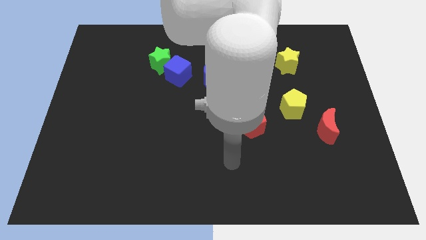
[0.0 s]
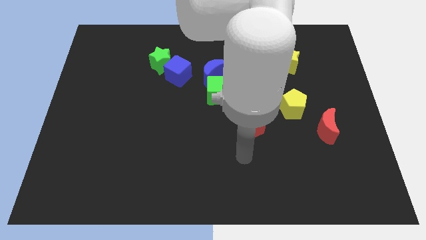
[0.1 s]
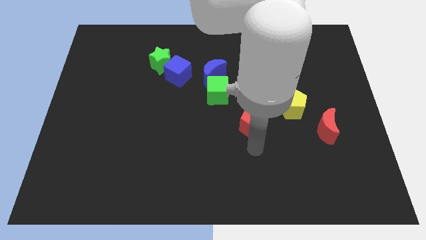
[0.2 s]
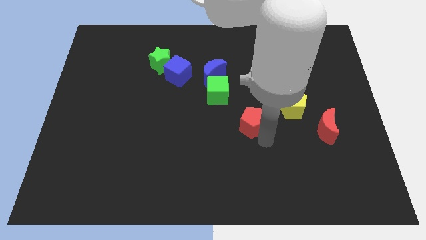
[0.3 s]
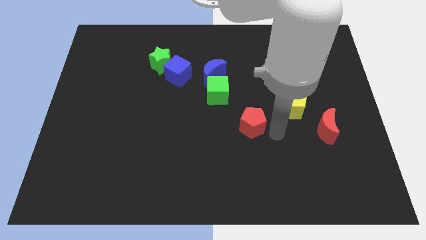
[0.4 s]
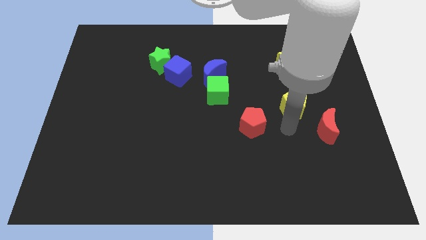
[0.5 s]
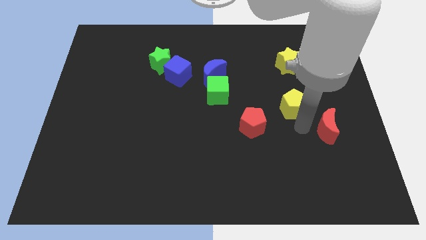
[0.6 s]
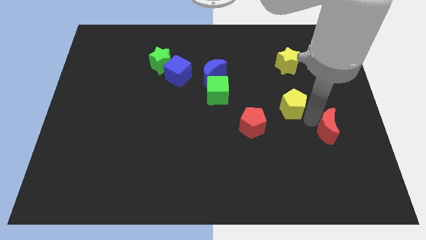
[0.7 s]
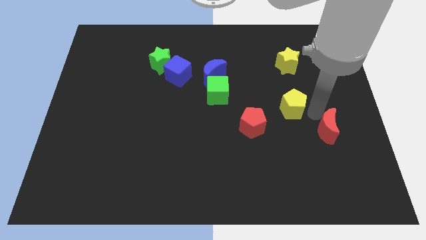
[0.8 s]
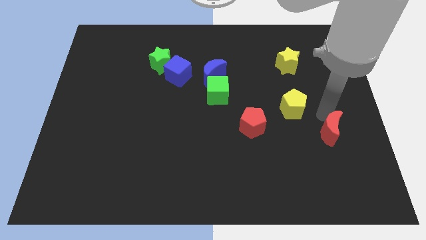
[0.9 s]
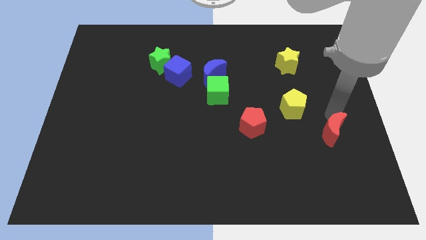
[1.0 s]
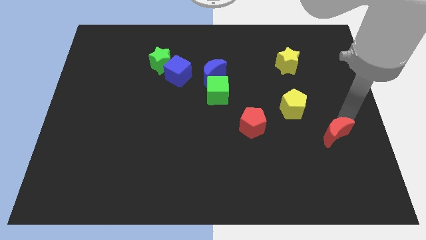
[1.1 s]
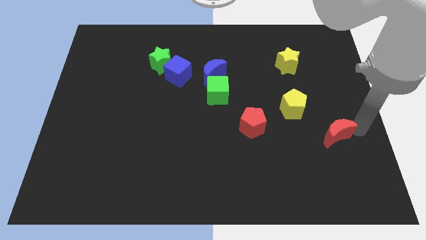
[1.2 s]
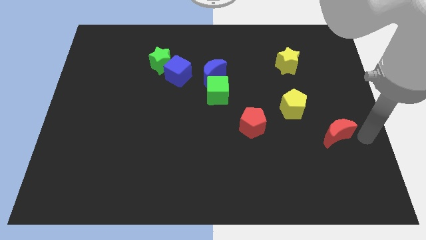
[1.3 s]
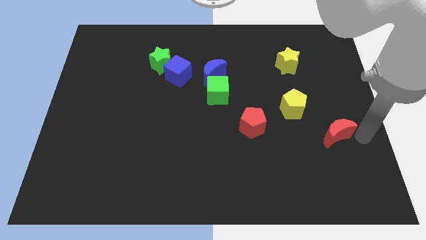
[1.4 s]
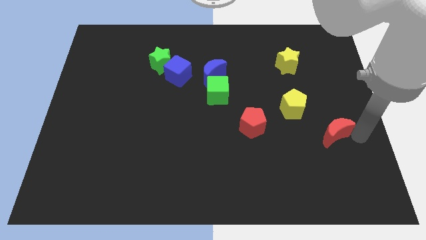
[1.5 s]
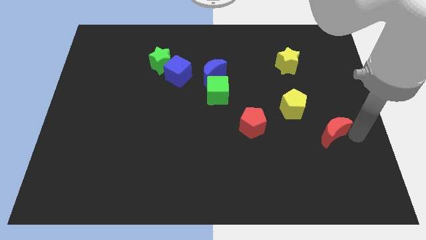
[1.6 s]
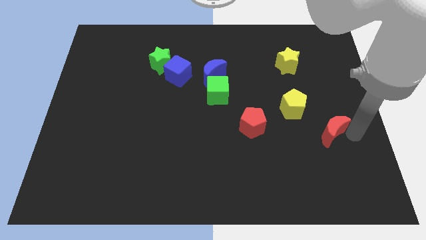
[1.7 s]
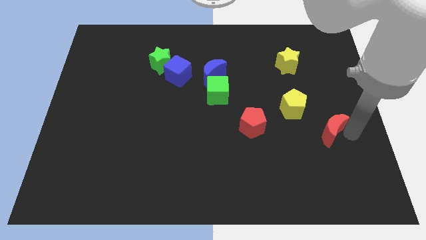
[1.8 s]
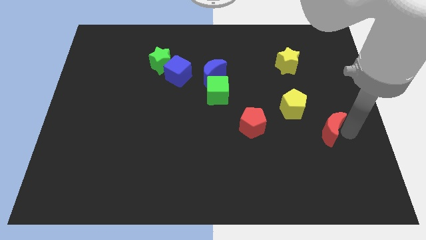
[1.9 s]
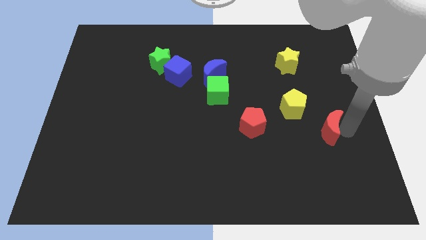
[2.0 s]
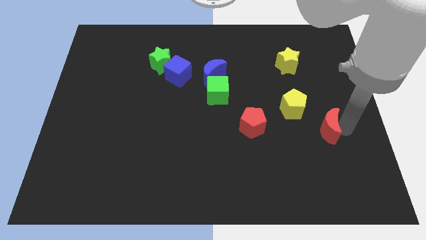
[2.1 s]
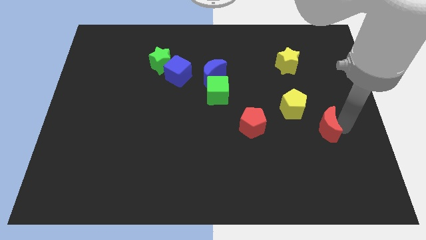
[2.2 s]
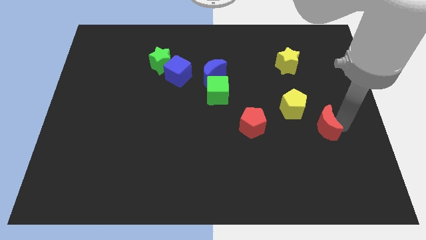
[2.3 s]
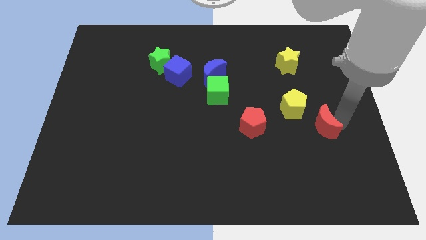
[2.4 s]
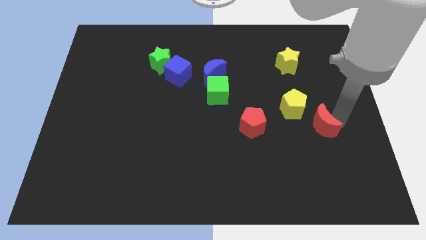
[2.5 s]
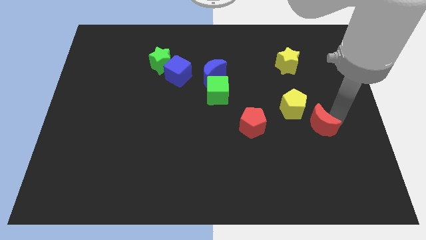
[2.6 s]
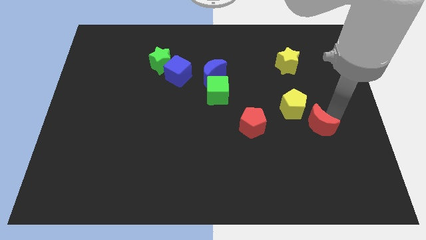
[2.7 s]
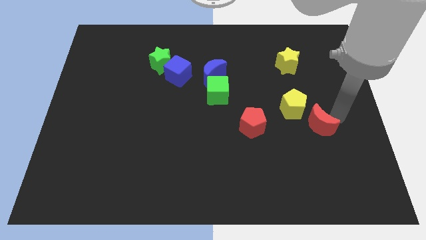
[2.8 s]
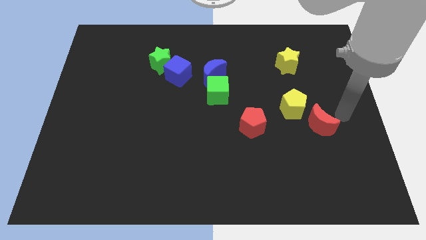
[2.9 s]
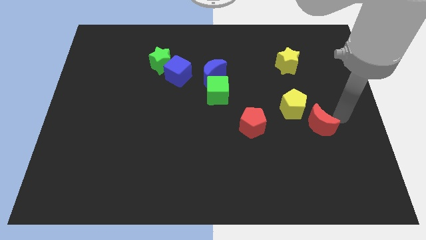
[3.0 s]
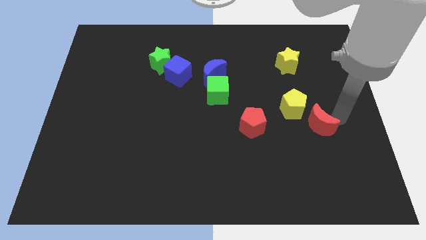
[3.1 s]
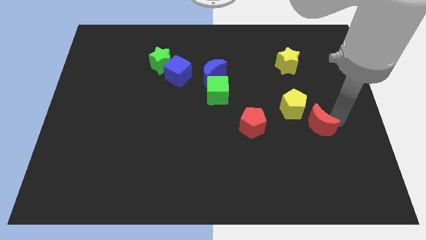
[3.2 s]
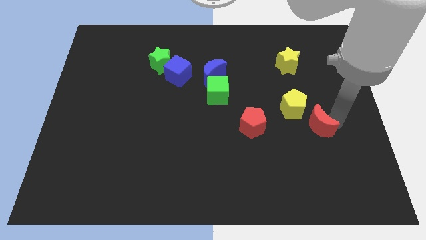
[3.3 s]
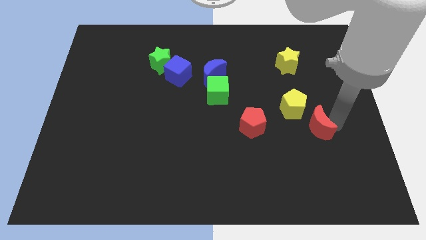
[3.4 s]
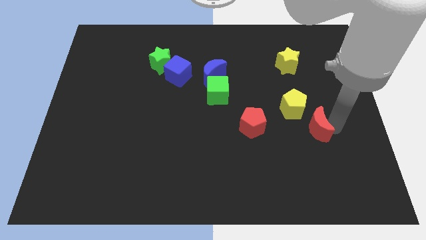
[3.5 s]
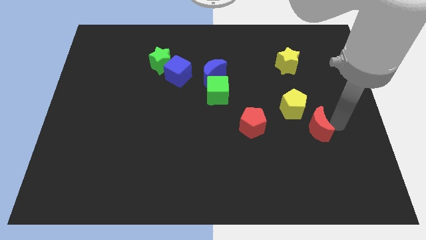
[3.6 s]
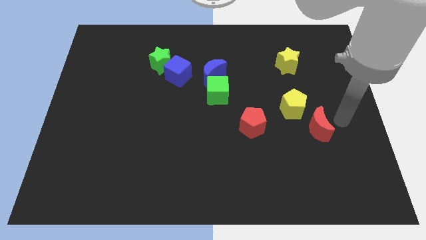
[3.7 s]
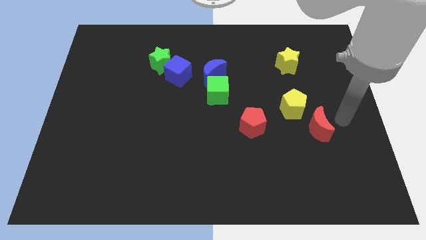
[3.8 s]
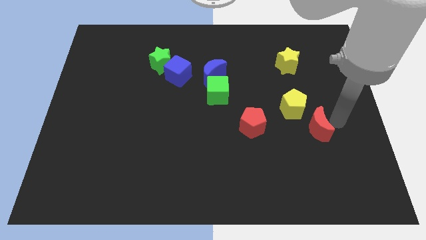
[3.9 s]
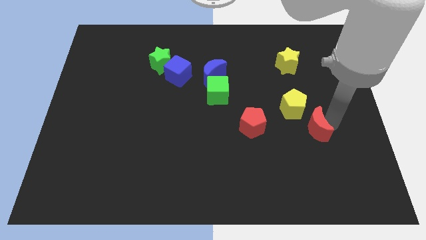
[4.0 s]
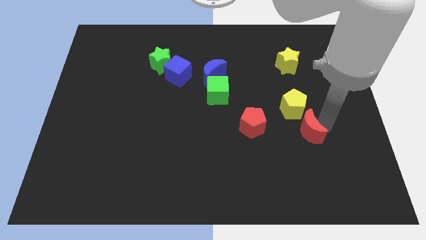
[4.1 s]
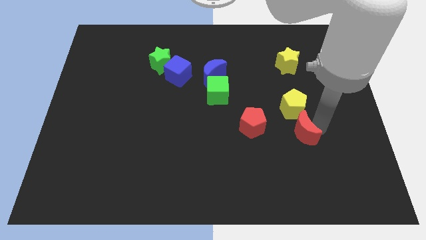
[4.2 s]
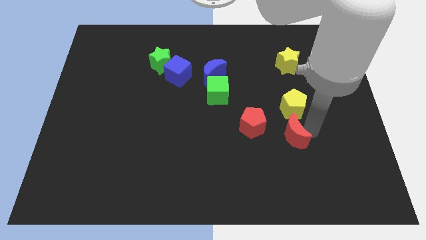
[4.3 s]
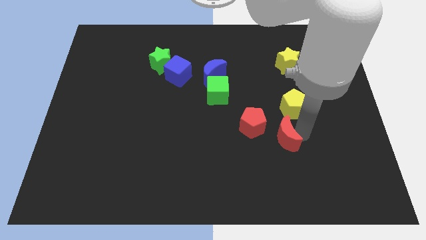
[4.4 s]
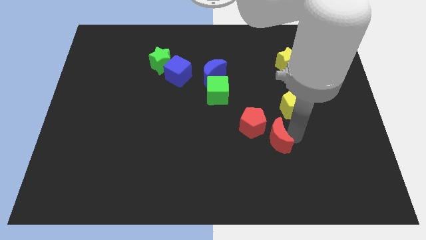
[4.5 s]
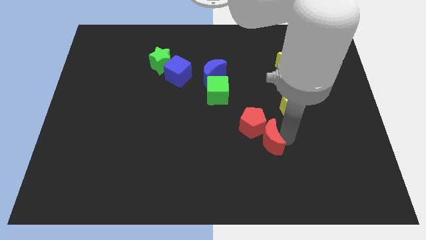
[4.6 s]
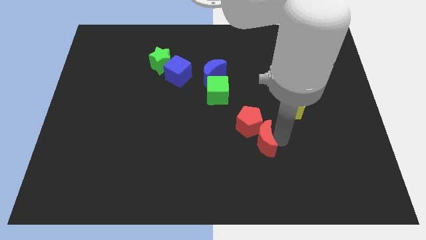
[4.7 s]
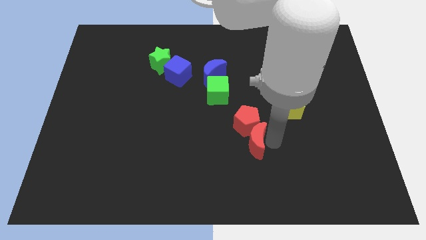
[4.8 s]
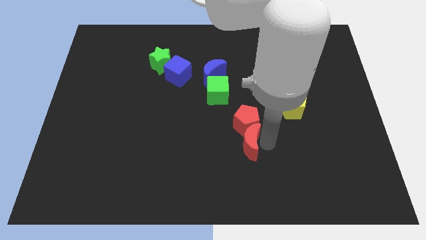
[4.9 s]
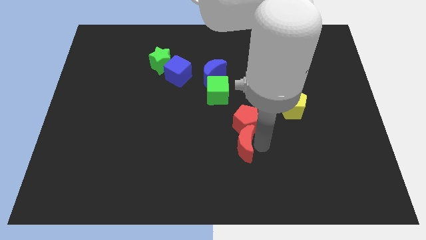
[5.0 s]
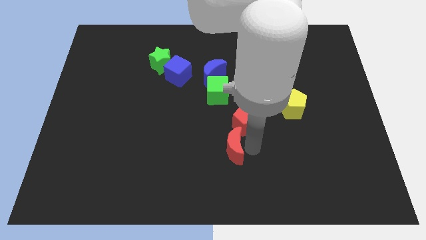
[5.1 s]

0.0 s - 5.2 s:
push the red moon to the left

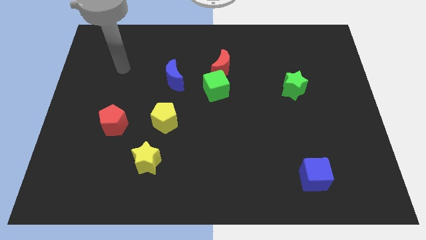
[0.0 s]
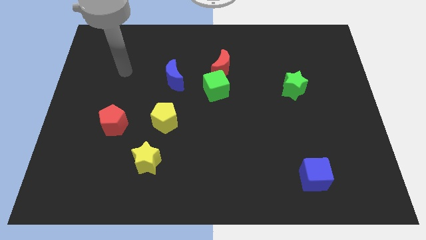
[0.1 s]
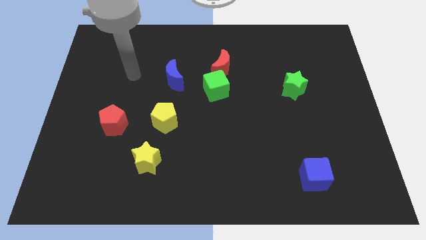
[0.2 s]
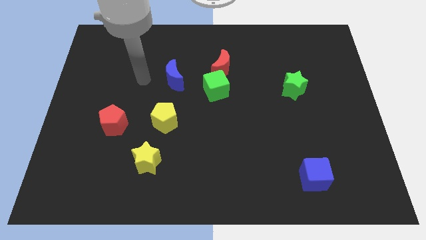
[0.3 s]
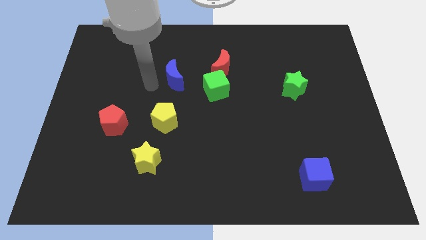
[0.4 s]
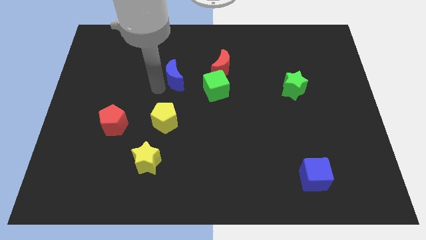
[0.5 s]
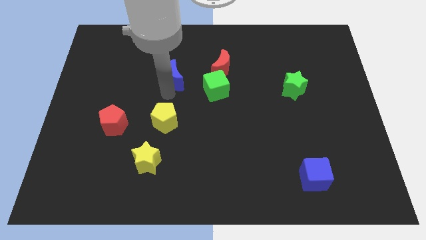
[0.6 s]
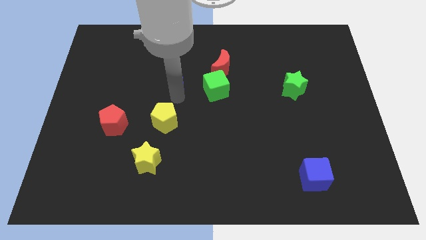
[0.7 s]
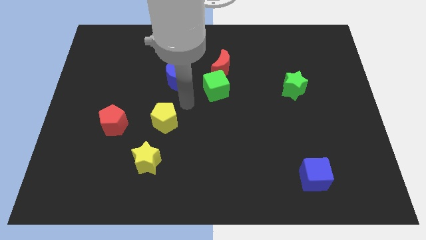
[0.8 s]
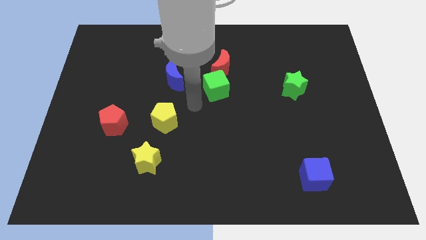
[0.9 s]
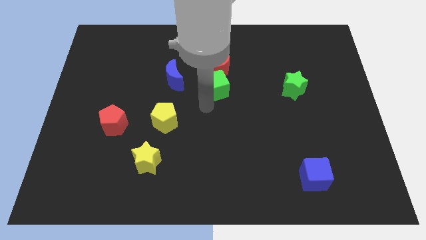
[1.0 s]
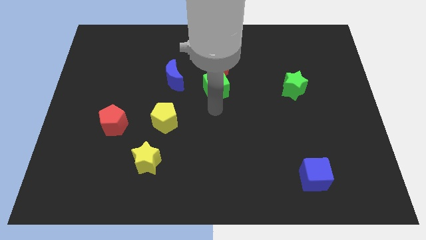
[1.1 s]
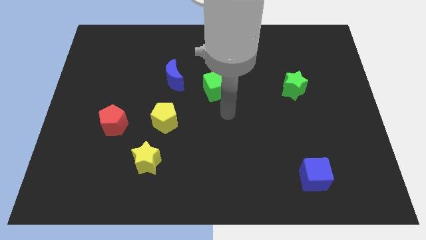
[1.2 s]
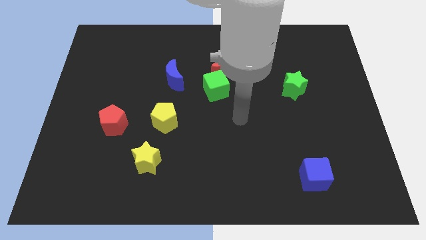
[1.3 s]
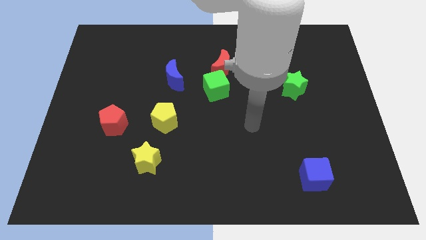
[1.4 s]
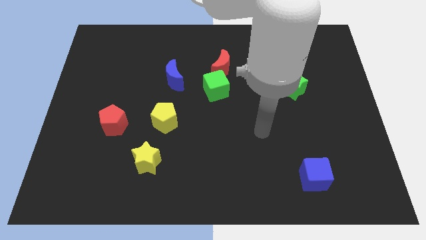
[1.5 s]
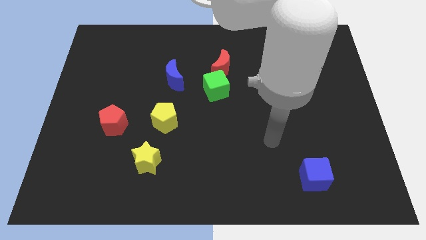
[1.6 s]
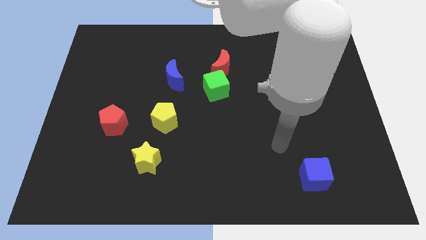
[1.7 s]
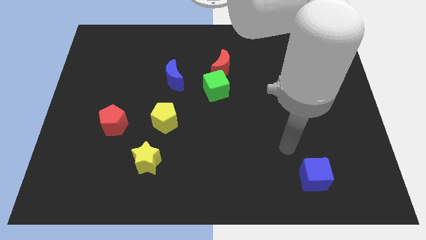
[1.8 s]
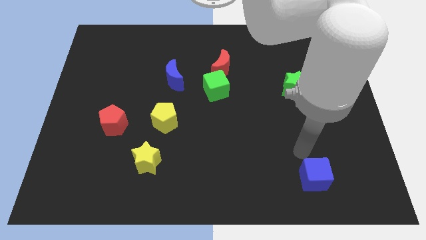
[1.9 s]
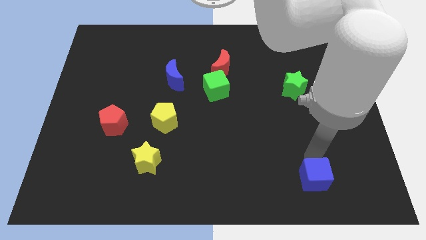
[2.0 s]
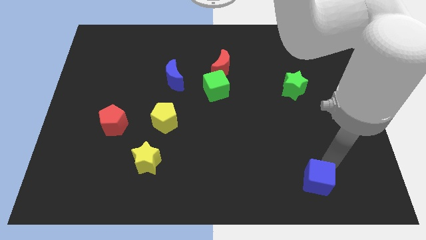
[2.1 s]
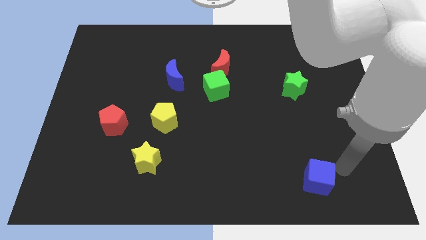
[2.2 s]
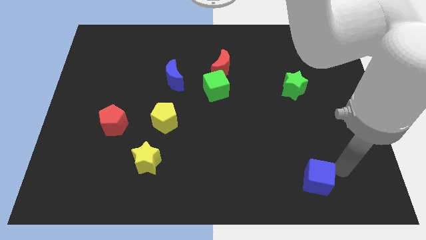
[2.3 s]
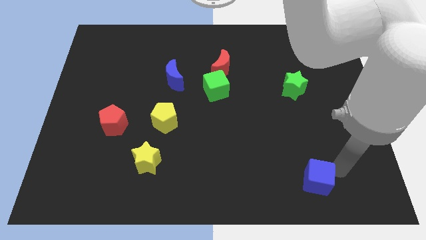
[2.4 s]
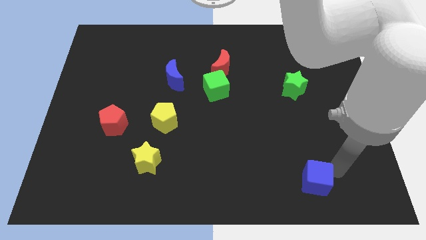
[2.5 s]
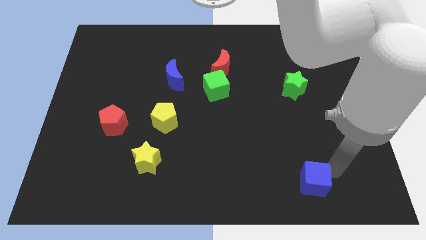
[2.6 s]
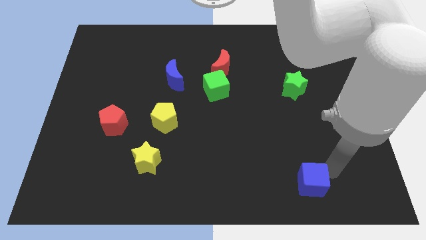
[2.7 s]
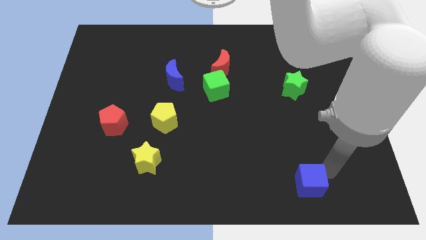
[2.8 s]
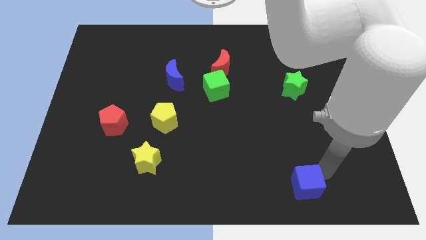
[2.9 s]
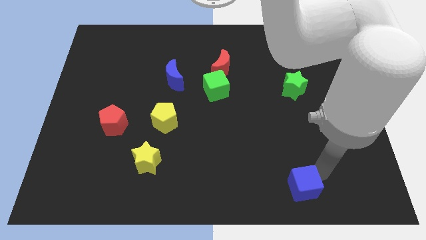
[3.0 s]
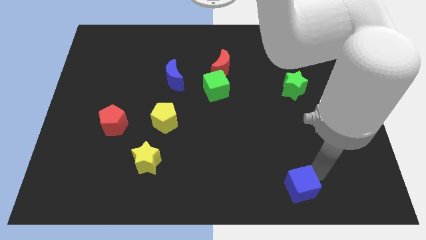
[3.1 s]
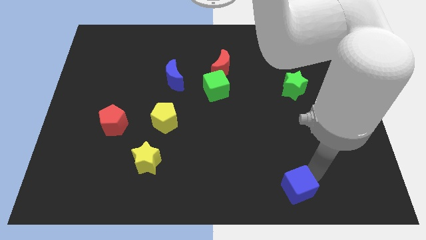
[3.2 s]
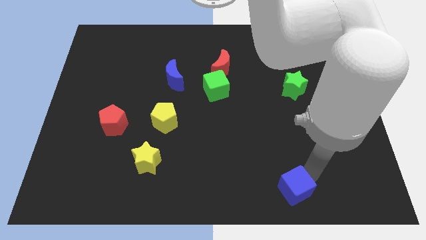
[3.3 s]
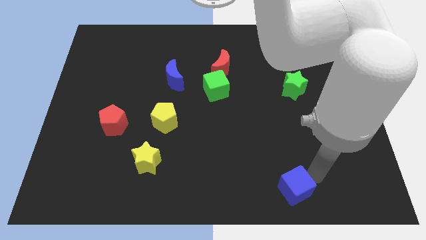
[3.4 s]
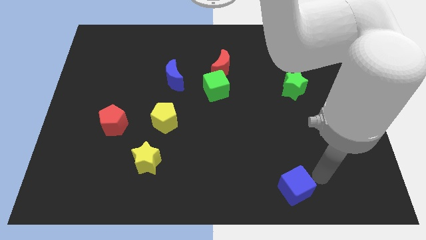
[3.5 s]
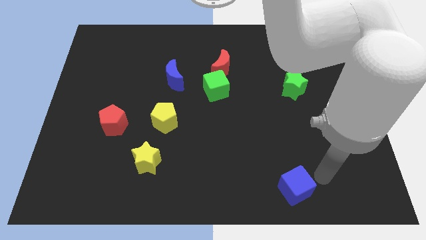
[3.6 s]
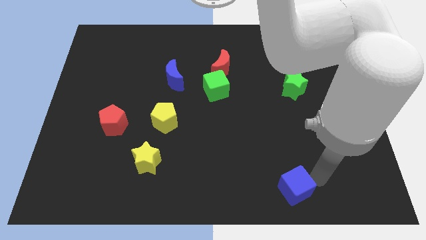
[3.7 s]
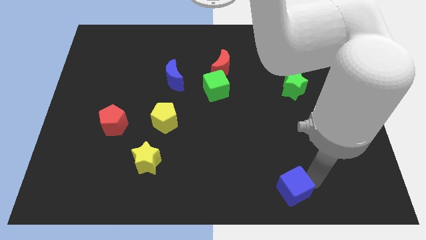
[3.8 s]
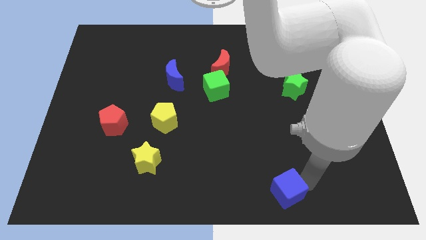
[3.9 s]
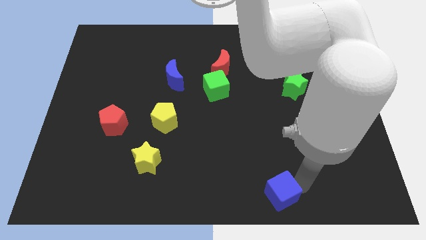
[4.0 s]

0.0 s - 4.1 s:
slide the blue cube left a little
